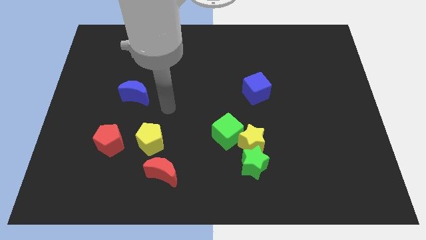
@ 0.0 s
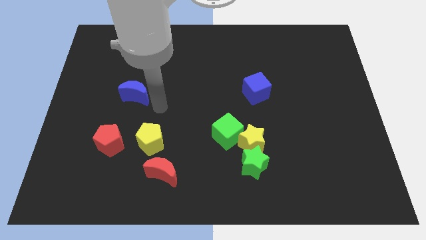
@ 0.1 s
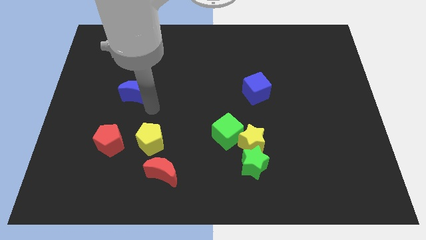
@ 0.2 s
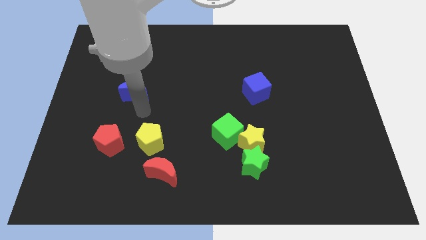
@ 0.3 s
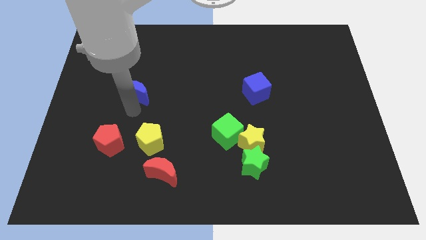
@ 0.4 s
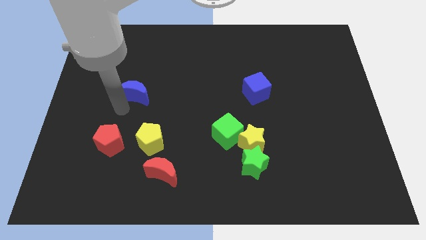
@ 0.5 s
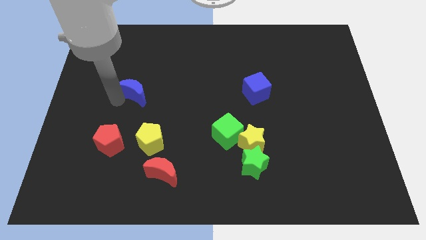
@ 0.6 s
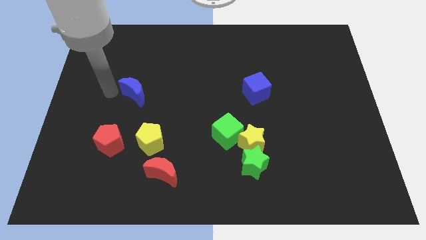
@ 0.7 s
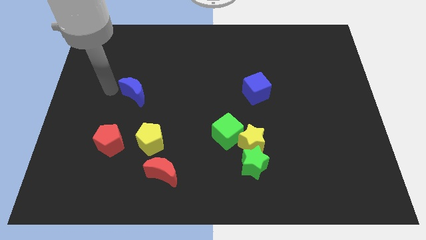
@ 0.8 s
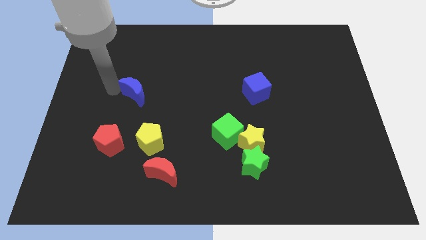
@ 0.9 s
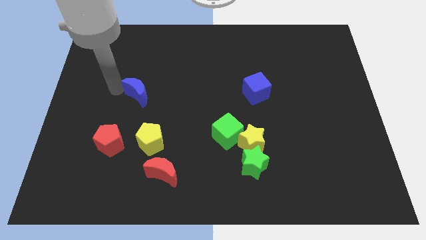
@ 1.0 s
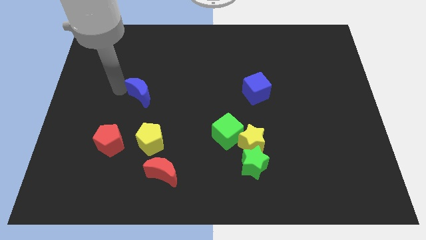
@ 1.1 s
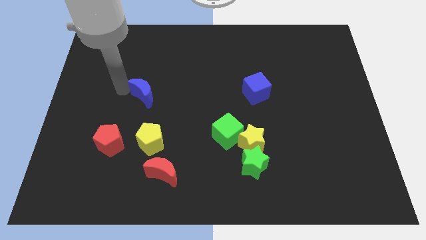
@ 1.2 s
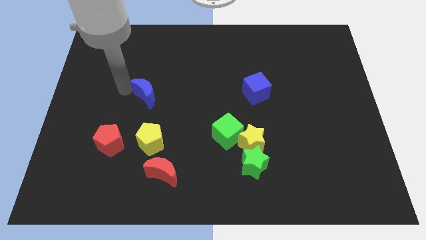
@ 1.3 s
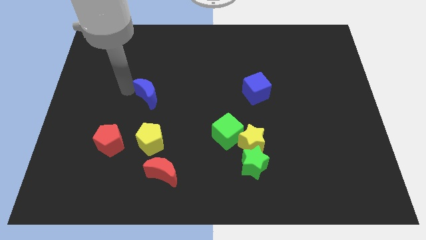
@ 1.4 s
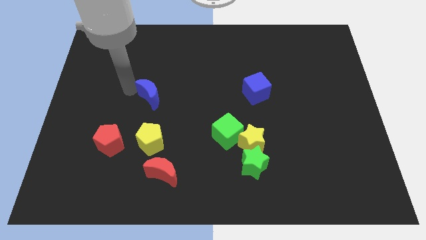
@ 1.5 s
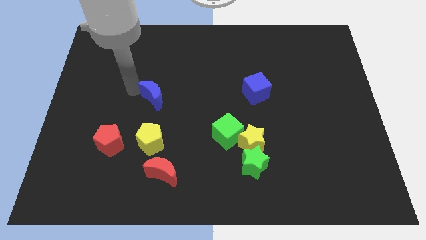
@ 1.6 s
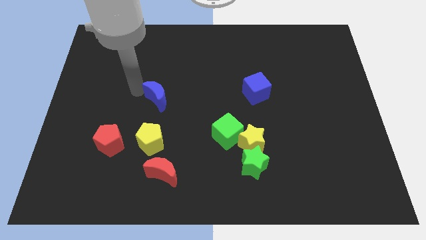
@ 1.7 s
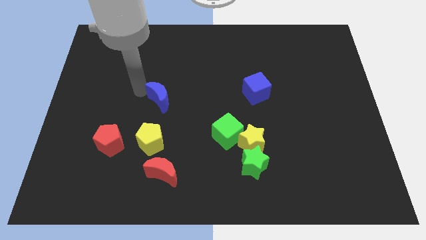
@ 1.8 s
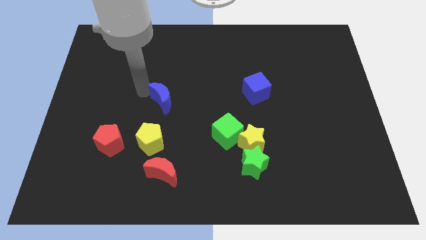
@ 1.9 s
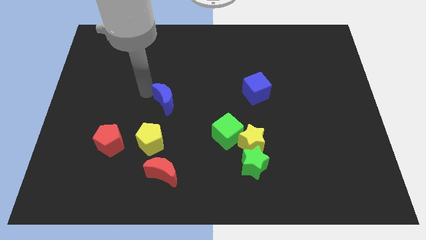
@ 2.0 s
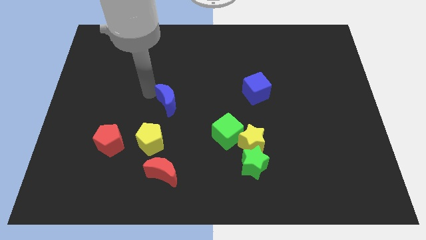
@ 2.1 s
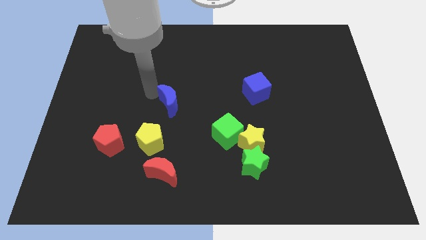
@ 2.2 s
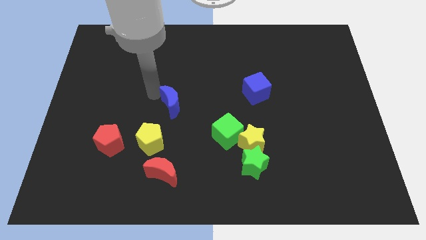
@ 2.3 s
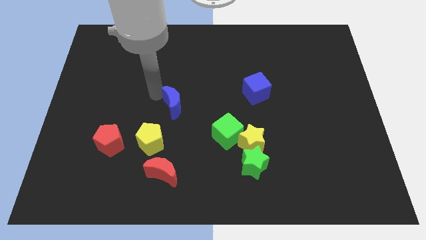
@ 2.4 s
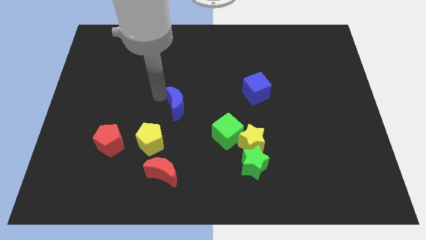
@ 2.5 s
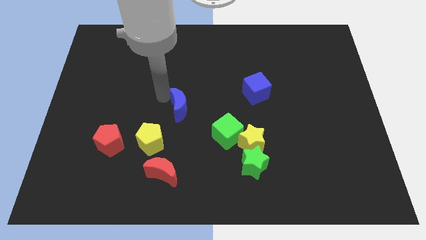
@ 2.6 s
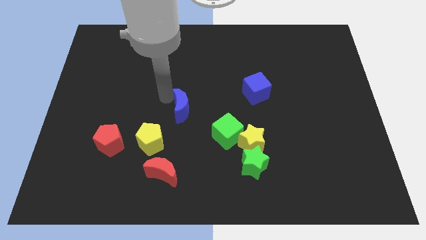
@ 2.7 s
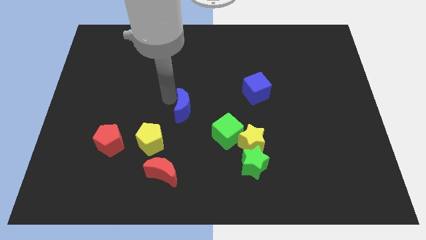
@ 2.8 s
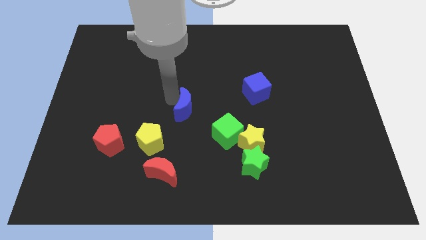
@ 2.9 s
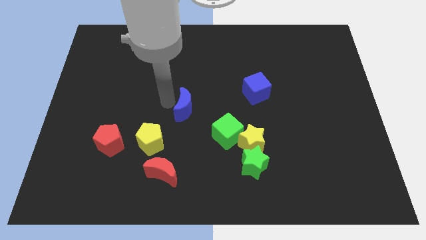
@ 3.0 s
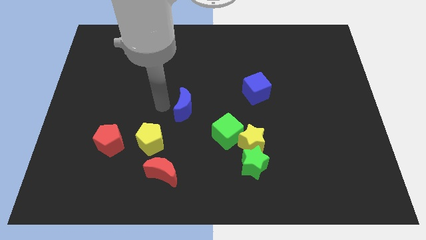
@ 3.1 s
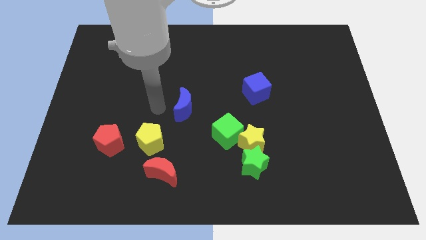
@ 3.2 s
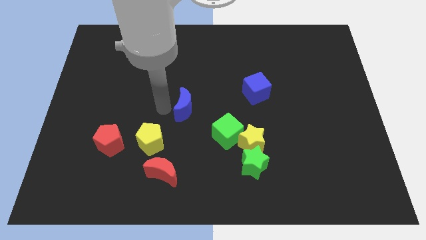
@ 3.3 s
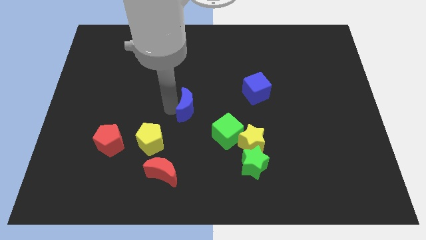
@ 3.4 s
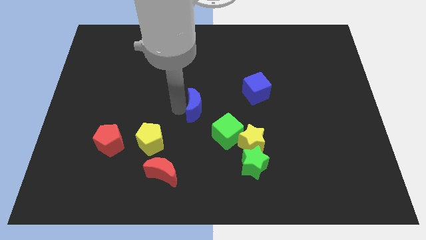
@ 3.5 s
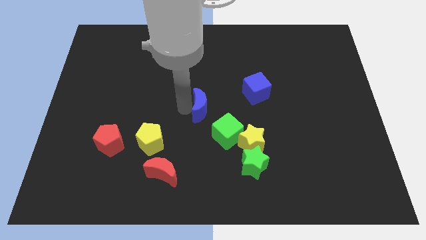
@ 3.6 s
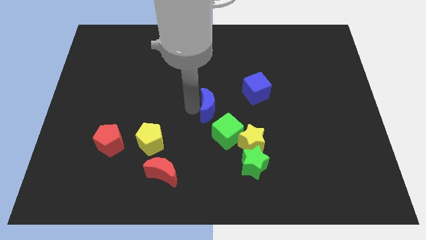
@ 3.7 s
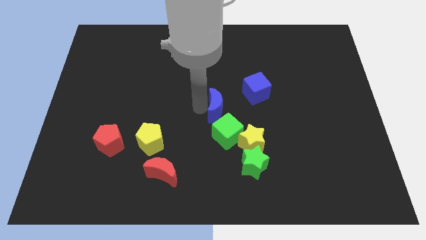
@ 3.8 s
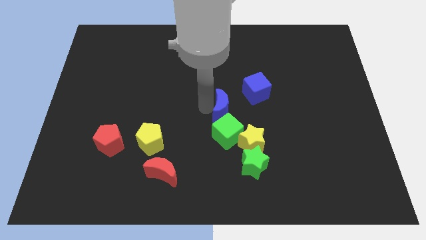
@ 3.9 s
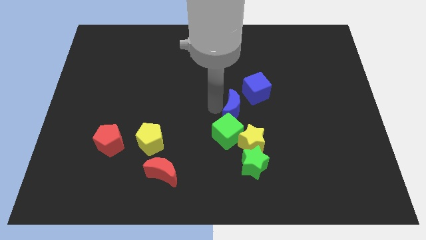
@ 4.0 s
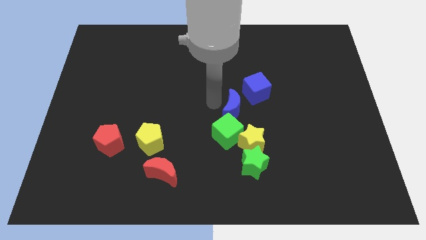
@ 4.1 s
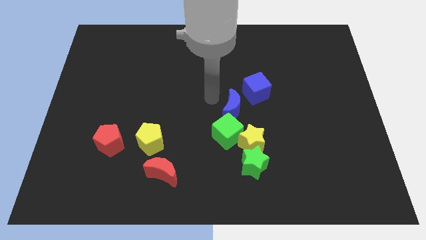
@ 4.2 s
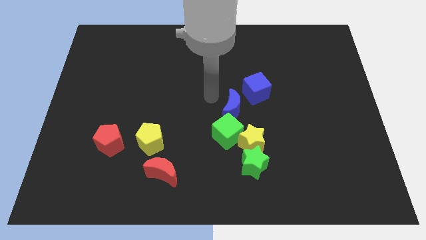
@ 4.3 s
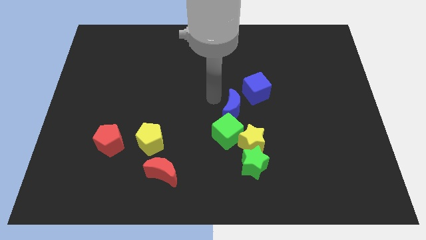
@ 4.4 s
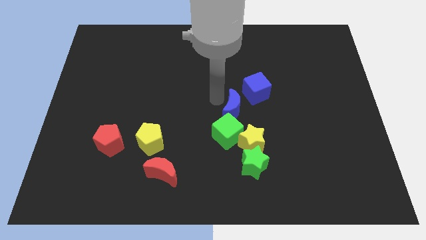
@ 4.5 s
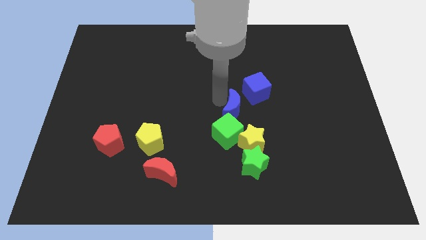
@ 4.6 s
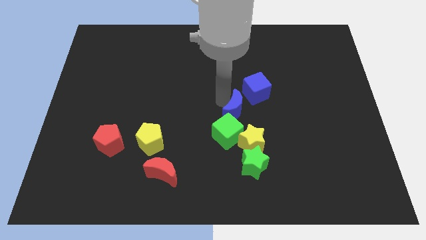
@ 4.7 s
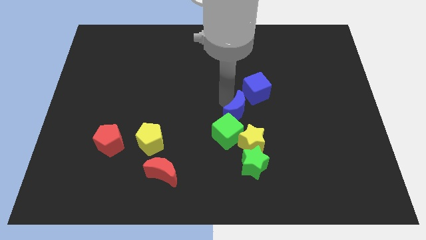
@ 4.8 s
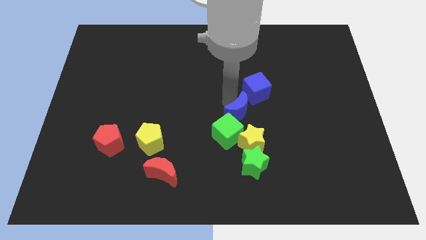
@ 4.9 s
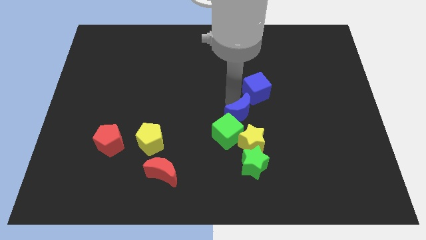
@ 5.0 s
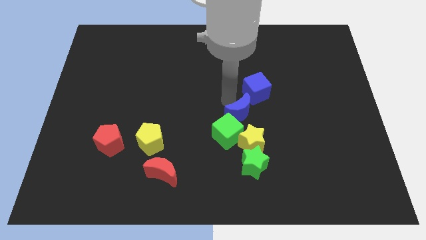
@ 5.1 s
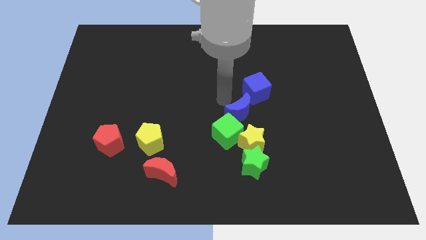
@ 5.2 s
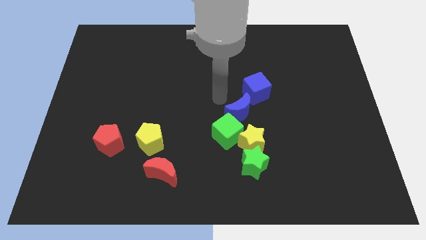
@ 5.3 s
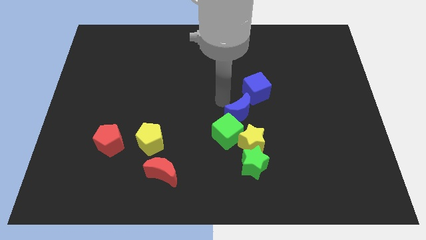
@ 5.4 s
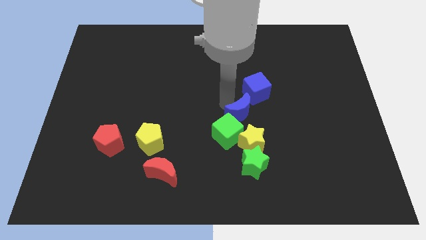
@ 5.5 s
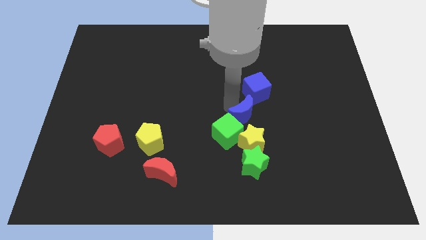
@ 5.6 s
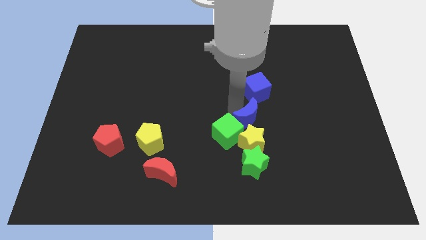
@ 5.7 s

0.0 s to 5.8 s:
move the blue moon just right of the green cube

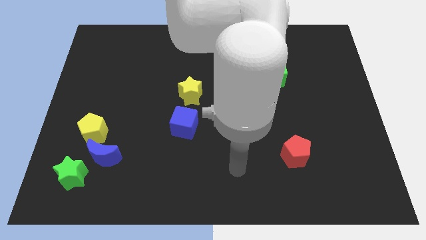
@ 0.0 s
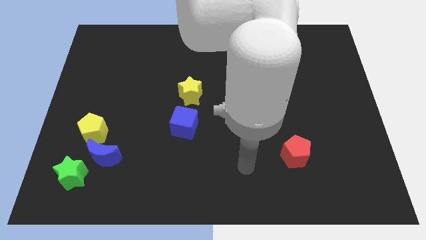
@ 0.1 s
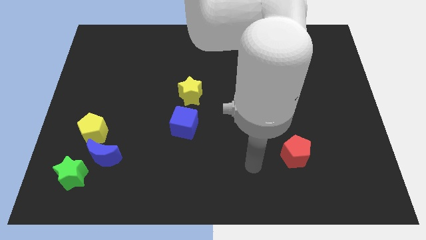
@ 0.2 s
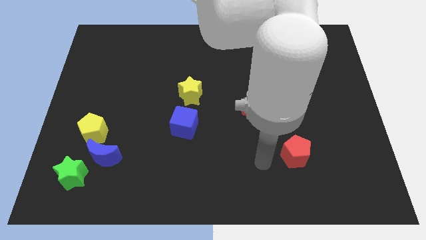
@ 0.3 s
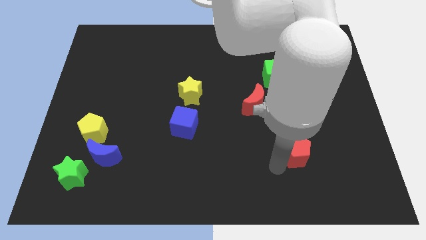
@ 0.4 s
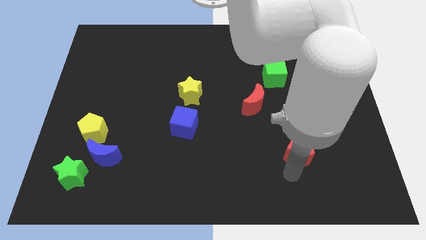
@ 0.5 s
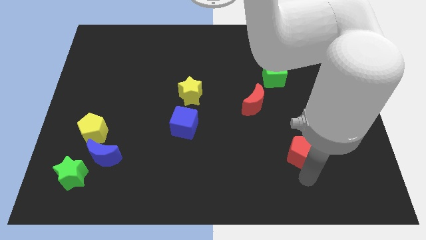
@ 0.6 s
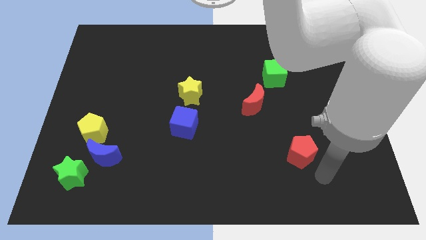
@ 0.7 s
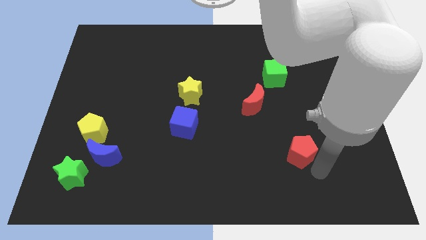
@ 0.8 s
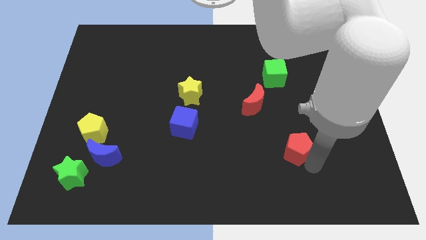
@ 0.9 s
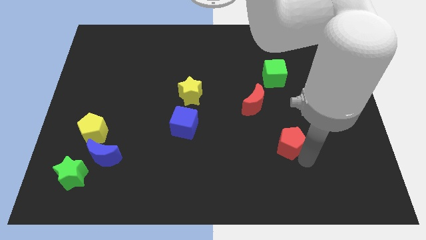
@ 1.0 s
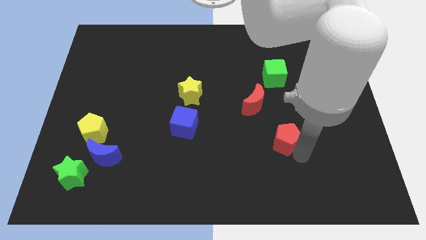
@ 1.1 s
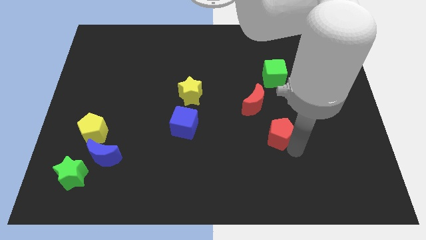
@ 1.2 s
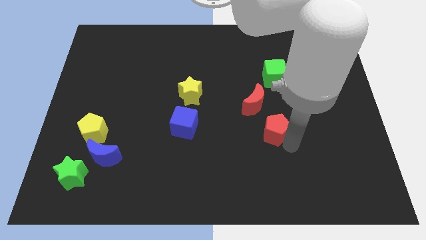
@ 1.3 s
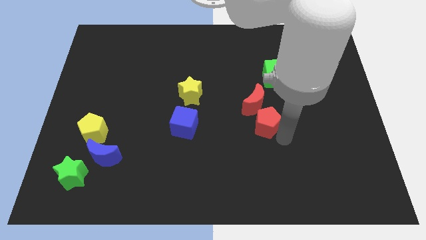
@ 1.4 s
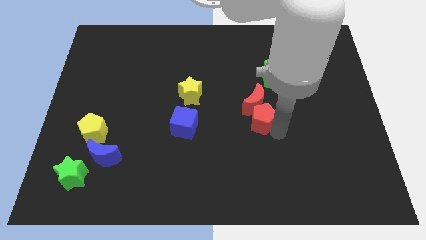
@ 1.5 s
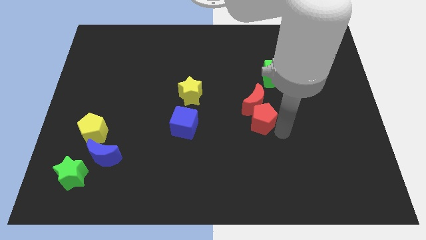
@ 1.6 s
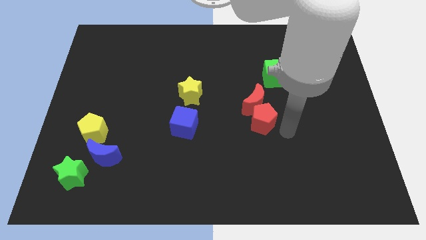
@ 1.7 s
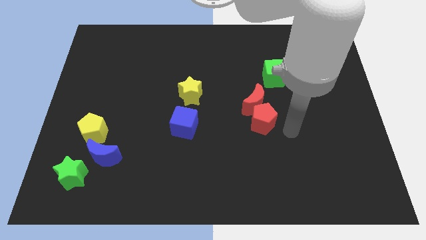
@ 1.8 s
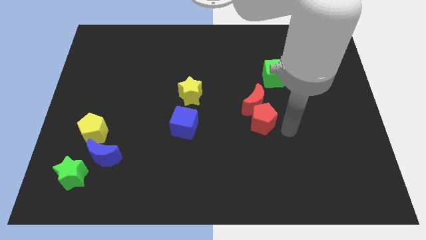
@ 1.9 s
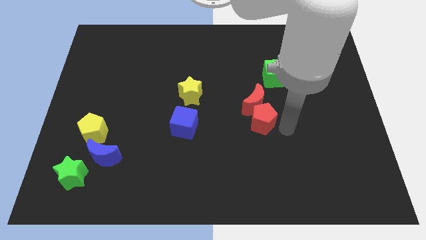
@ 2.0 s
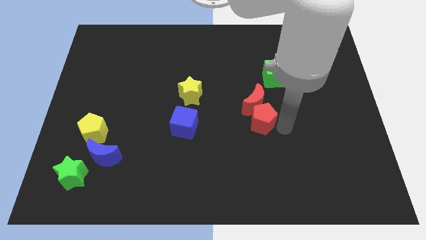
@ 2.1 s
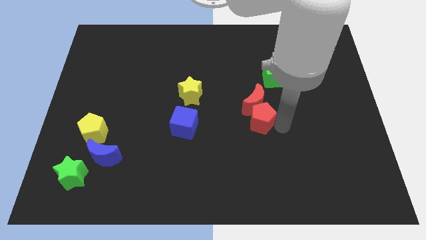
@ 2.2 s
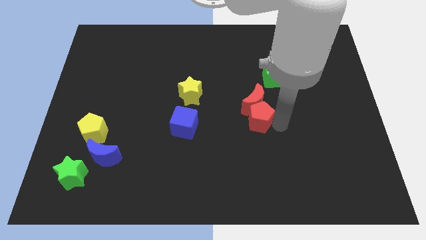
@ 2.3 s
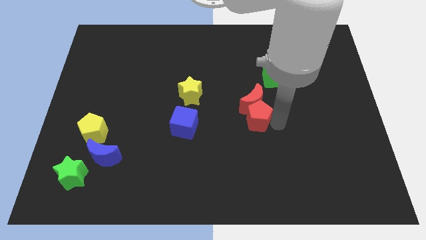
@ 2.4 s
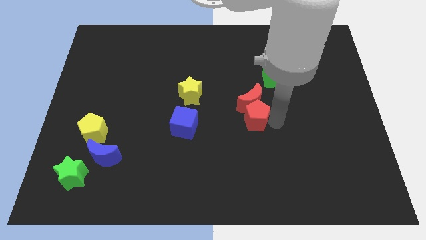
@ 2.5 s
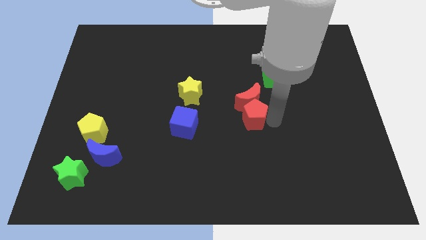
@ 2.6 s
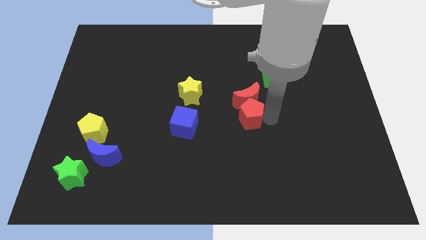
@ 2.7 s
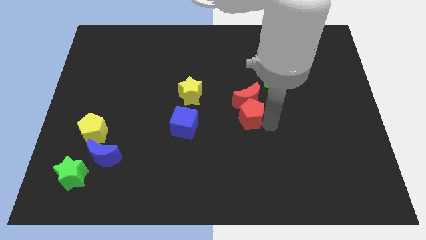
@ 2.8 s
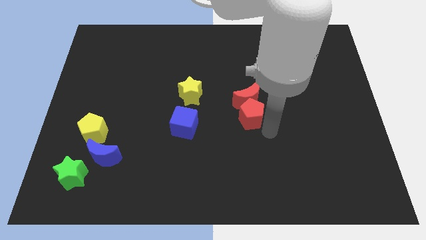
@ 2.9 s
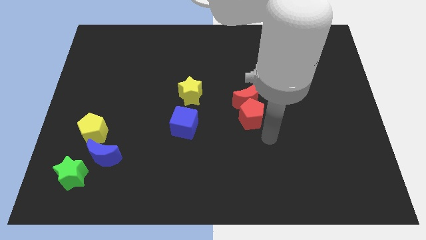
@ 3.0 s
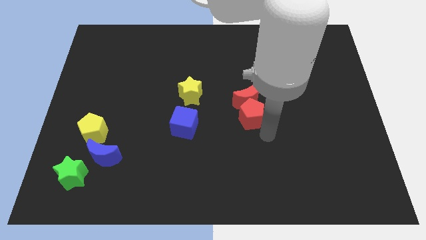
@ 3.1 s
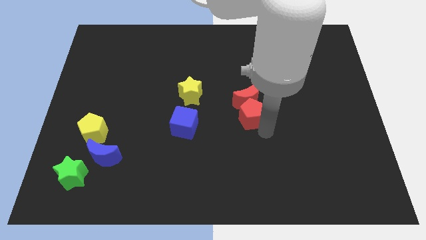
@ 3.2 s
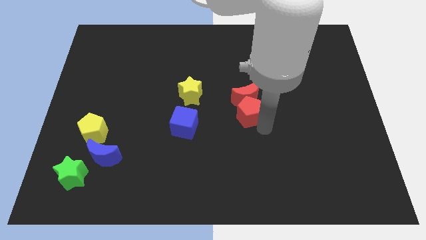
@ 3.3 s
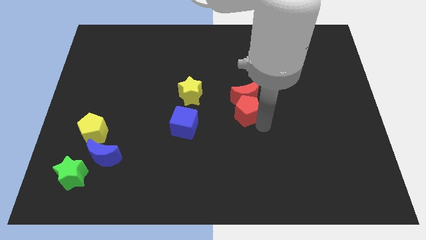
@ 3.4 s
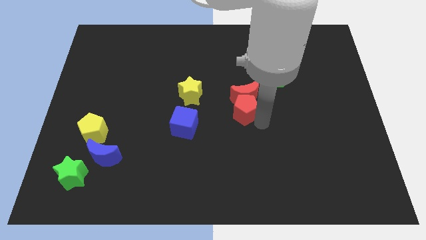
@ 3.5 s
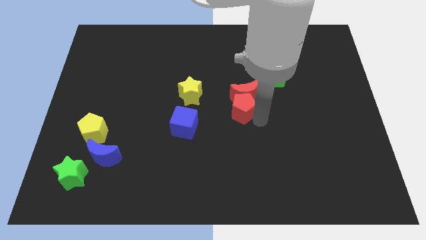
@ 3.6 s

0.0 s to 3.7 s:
push the red pentagon right of the yellow star
